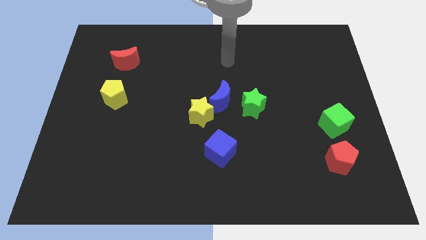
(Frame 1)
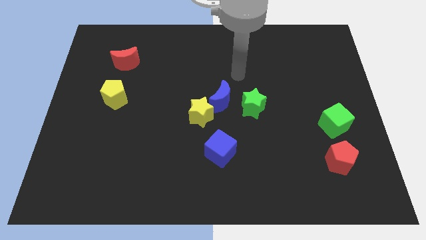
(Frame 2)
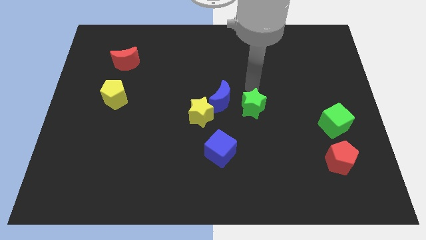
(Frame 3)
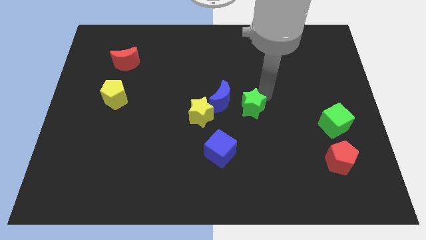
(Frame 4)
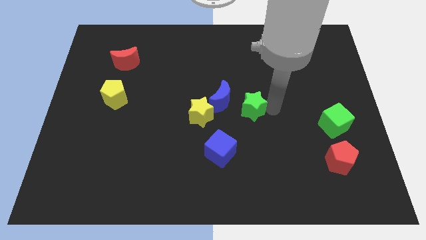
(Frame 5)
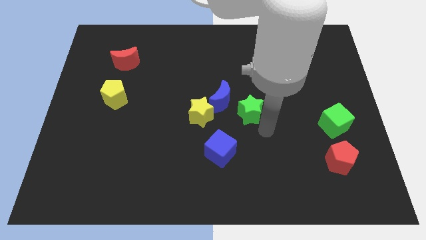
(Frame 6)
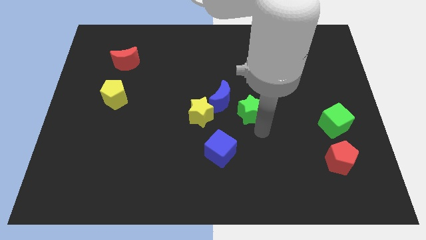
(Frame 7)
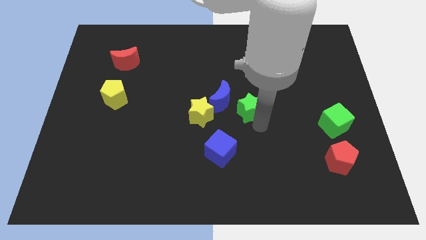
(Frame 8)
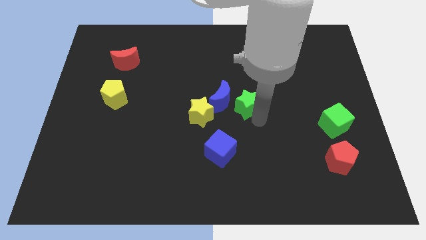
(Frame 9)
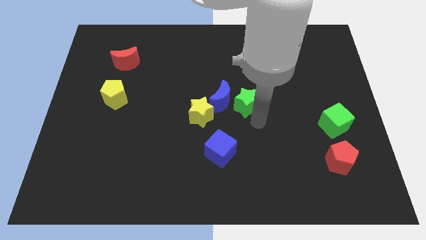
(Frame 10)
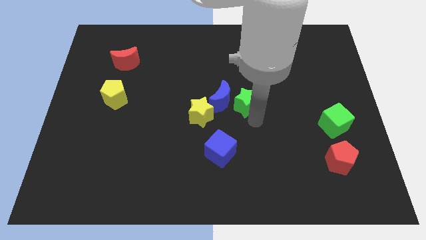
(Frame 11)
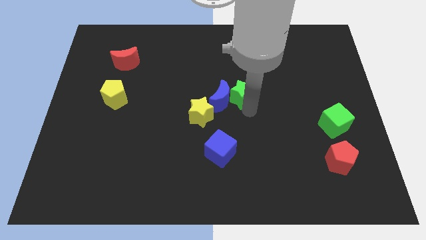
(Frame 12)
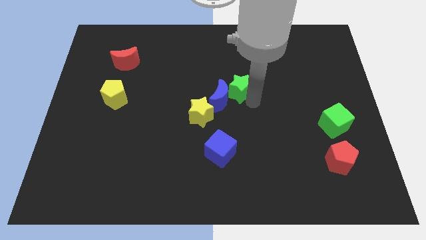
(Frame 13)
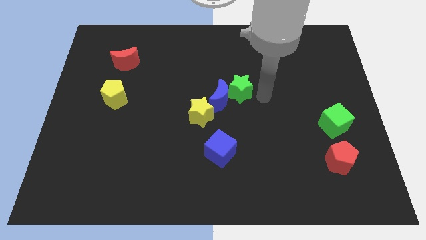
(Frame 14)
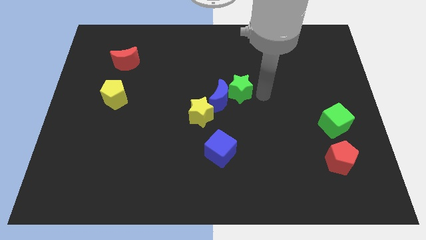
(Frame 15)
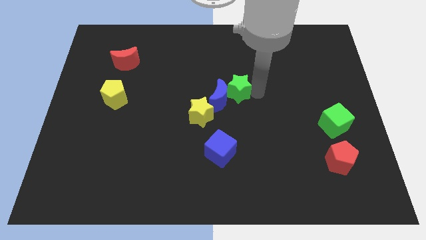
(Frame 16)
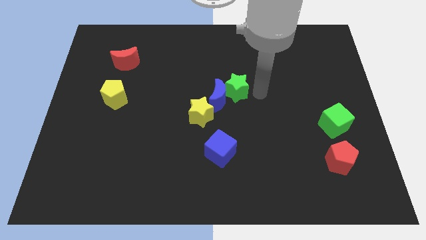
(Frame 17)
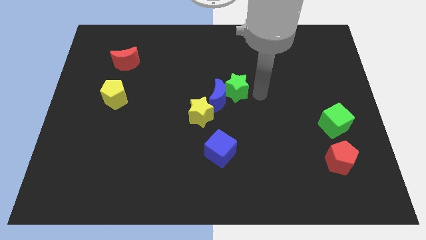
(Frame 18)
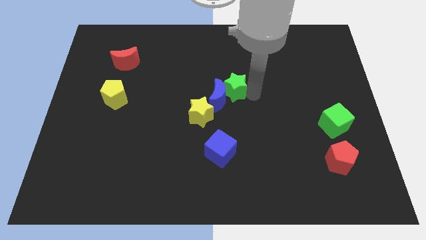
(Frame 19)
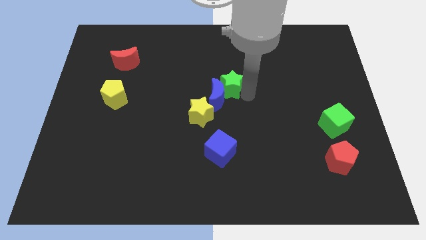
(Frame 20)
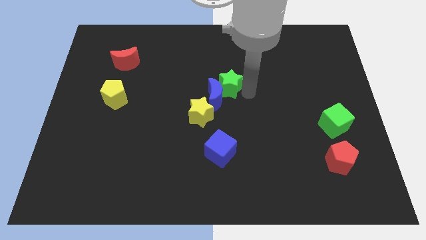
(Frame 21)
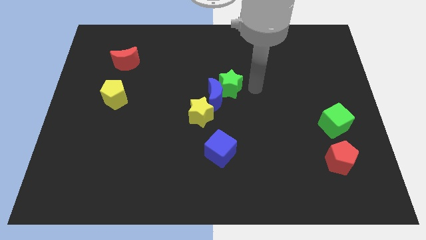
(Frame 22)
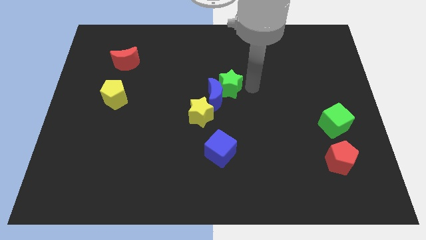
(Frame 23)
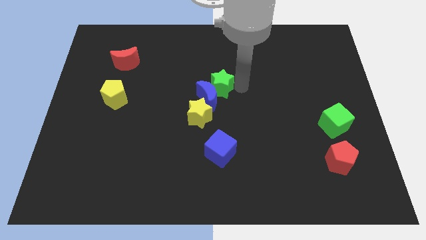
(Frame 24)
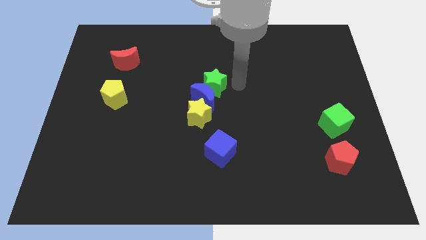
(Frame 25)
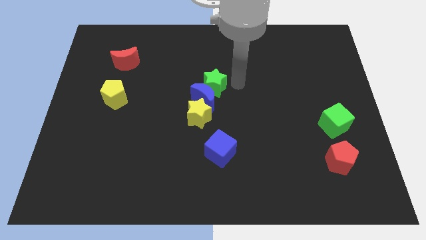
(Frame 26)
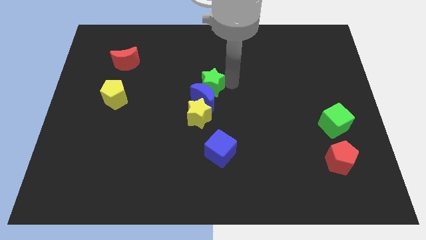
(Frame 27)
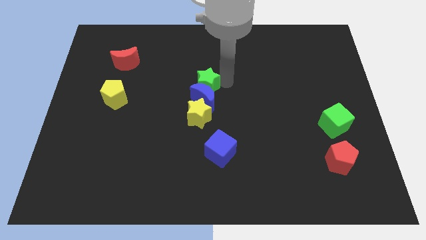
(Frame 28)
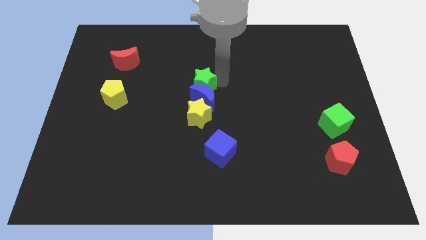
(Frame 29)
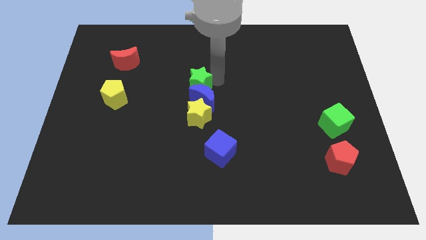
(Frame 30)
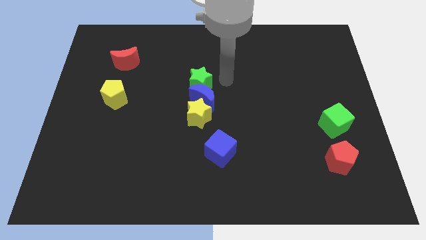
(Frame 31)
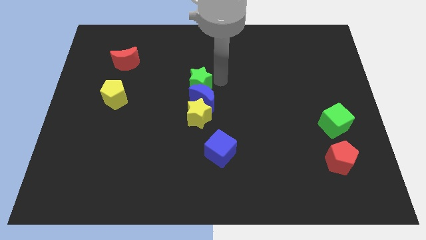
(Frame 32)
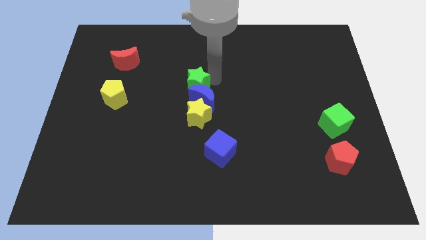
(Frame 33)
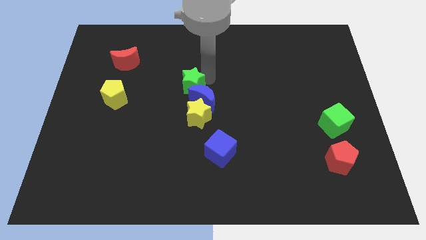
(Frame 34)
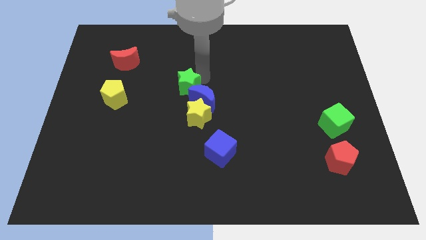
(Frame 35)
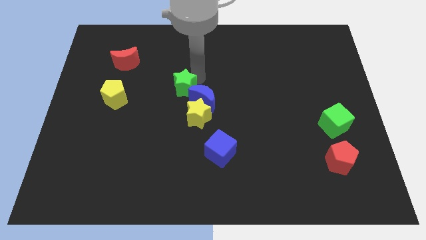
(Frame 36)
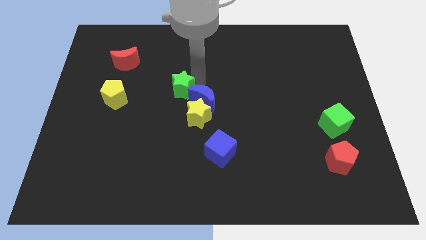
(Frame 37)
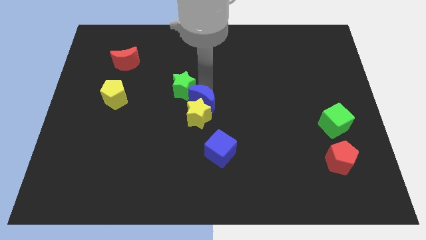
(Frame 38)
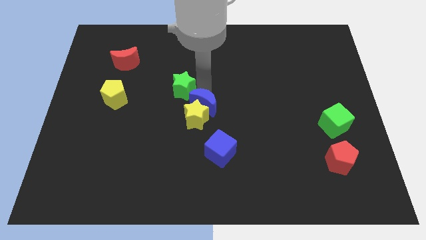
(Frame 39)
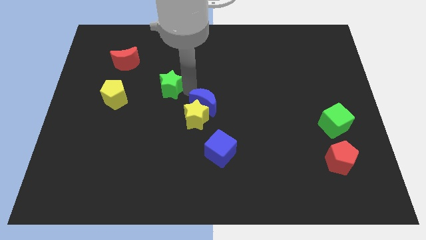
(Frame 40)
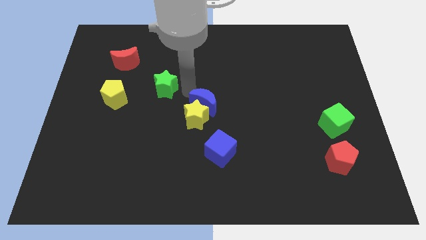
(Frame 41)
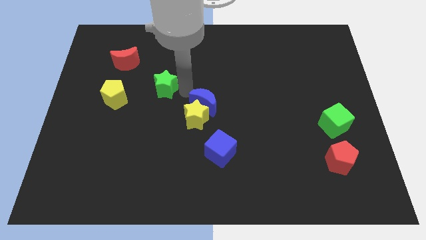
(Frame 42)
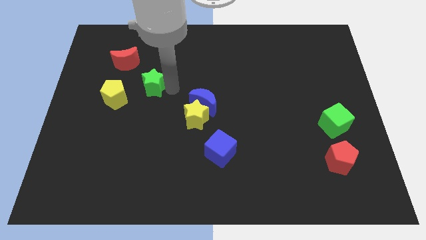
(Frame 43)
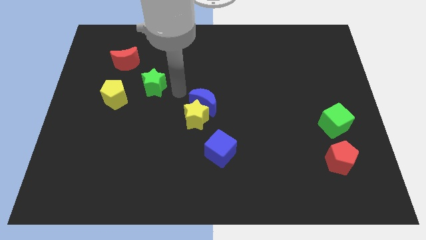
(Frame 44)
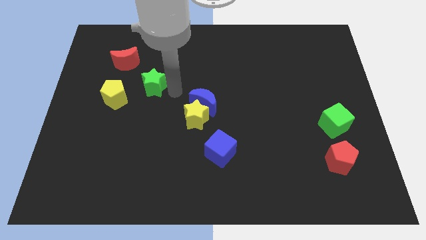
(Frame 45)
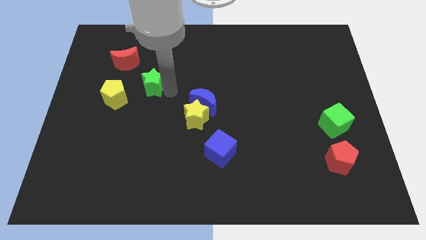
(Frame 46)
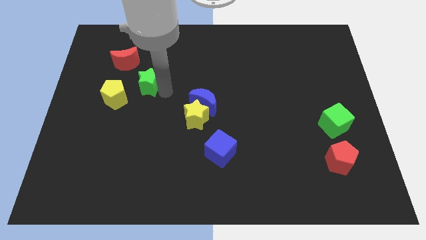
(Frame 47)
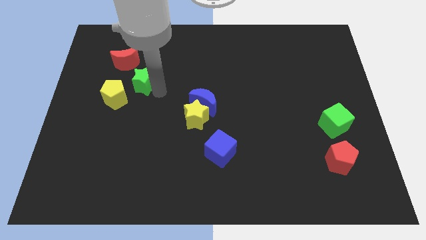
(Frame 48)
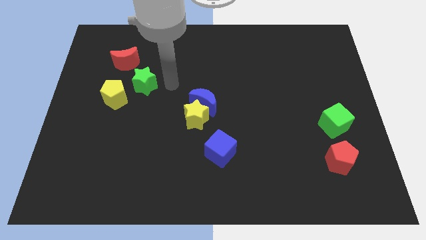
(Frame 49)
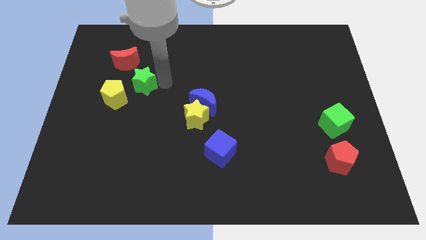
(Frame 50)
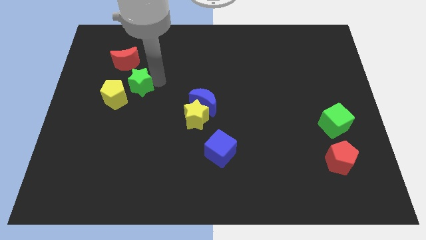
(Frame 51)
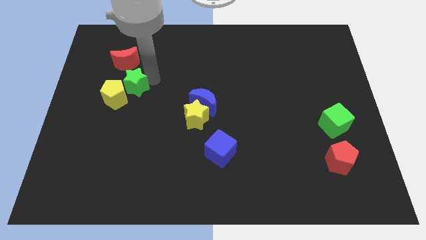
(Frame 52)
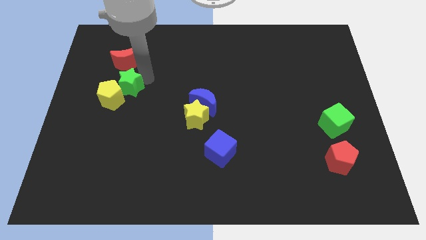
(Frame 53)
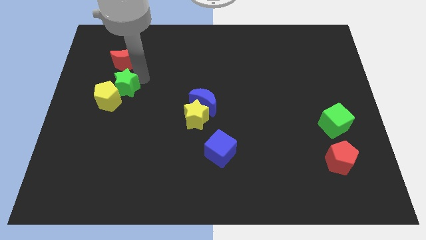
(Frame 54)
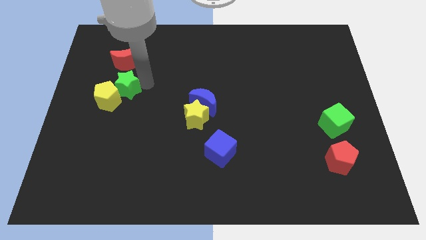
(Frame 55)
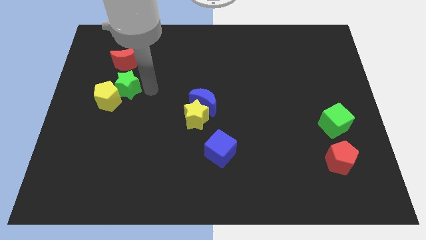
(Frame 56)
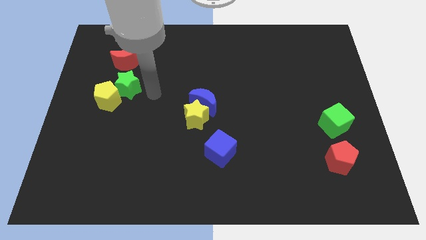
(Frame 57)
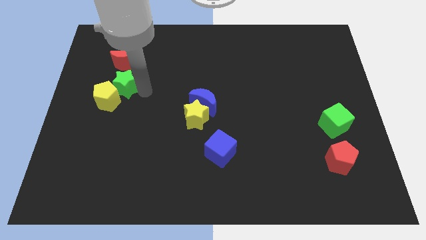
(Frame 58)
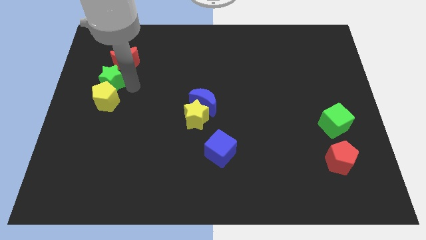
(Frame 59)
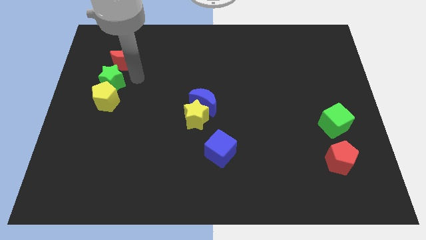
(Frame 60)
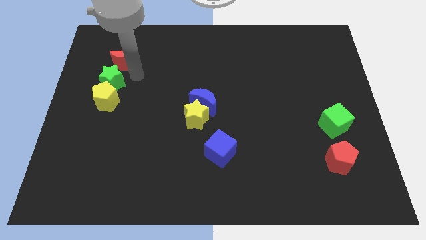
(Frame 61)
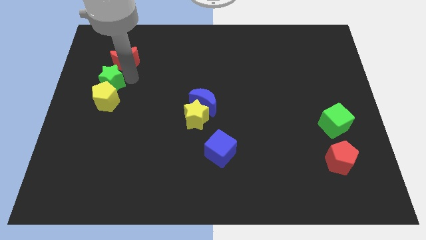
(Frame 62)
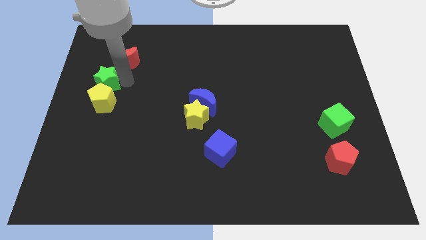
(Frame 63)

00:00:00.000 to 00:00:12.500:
slide the green star to the left side of the board
